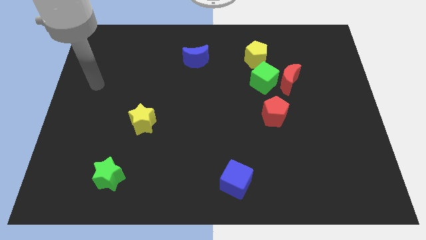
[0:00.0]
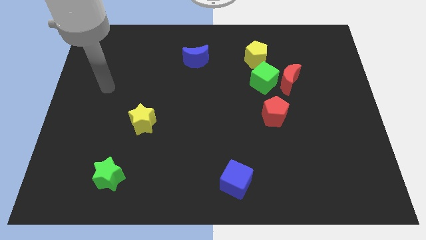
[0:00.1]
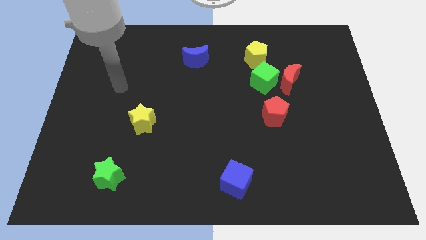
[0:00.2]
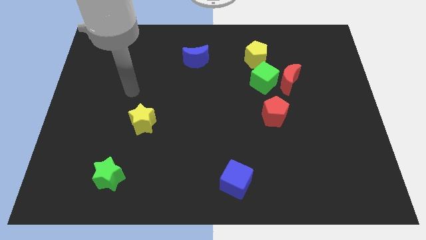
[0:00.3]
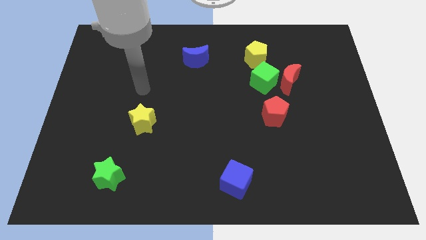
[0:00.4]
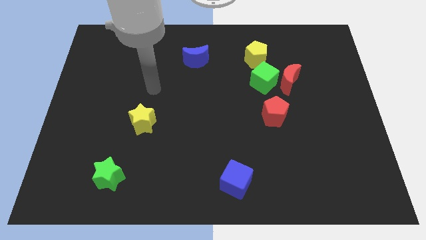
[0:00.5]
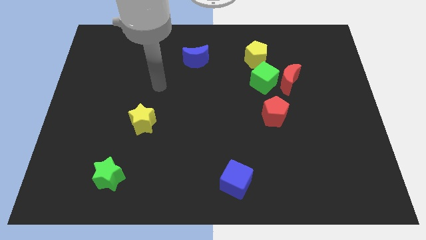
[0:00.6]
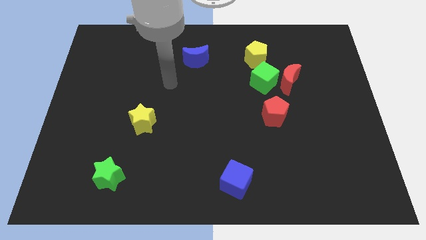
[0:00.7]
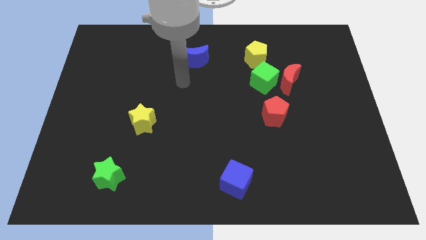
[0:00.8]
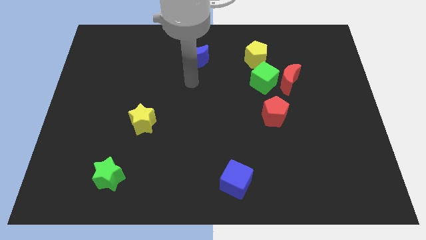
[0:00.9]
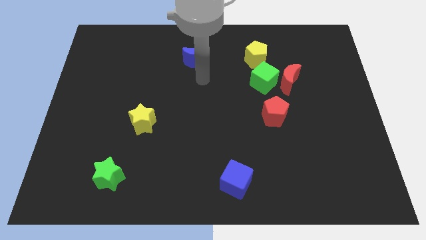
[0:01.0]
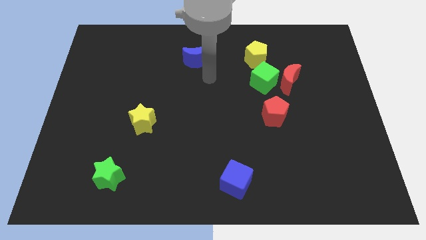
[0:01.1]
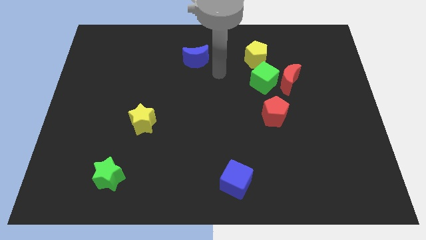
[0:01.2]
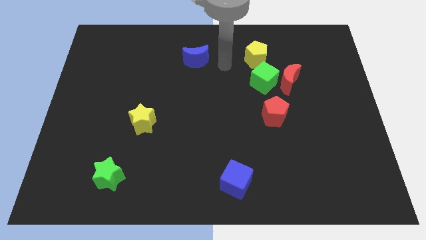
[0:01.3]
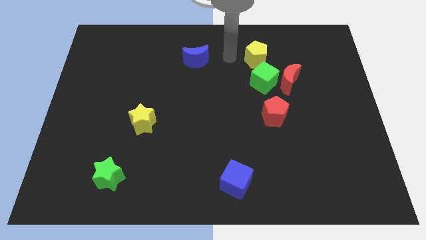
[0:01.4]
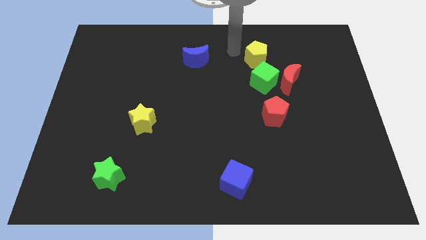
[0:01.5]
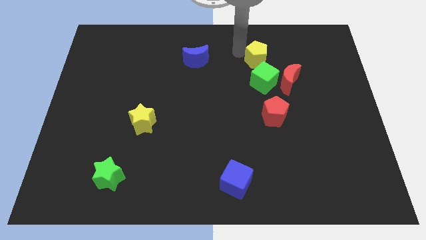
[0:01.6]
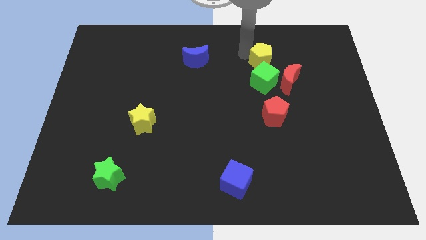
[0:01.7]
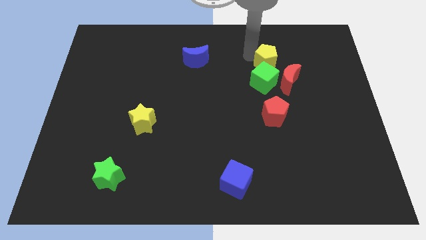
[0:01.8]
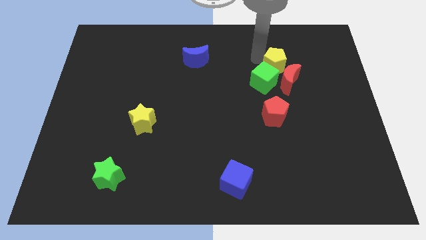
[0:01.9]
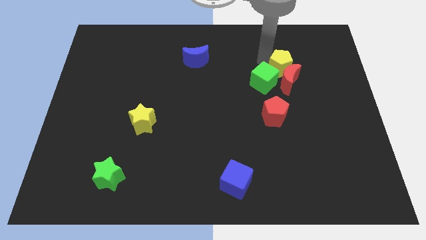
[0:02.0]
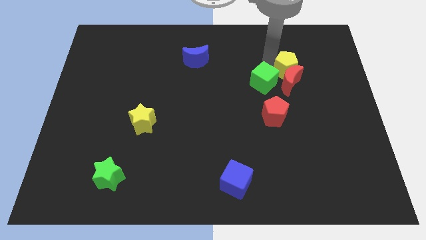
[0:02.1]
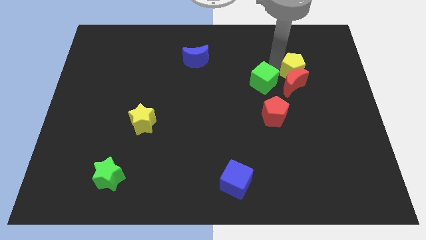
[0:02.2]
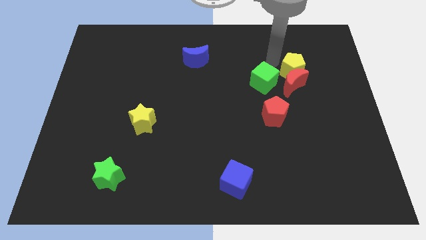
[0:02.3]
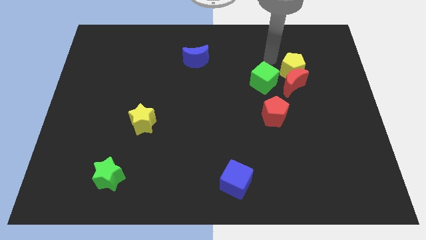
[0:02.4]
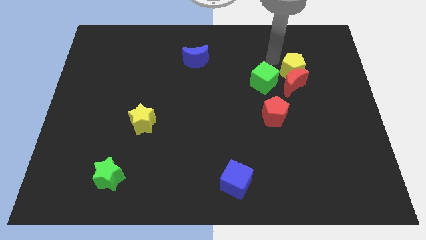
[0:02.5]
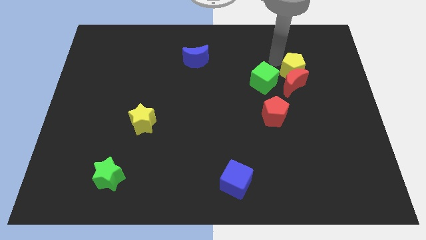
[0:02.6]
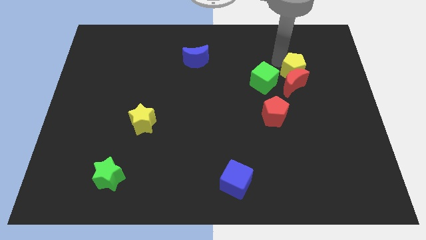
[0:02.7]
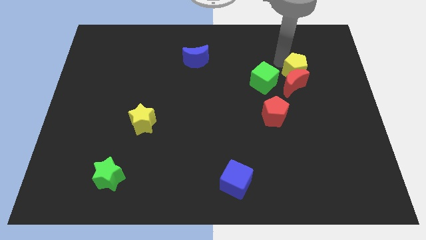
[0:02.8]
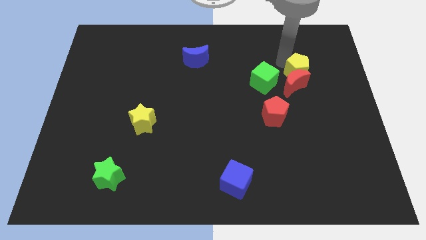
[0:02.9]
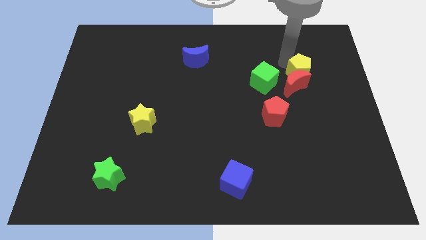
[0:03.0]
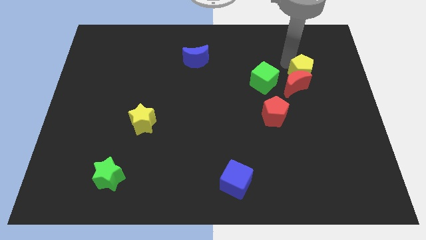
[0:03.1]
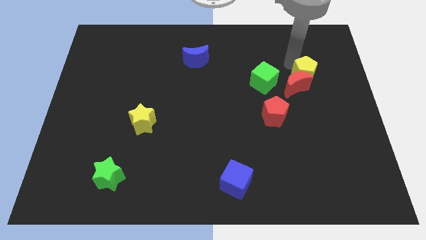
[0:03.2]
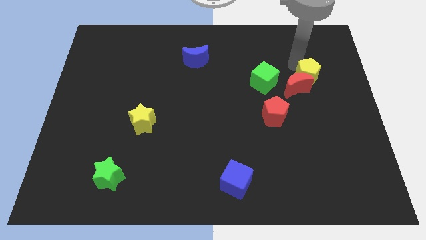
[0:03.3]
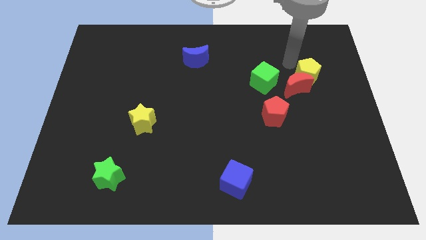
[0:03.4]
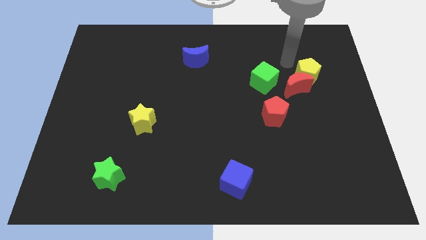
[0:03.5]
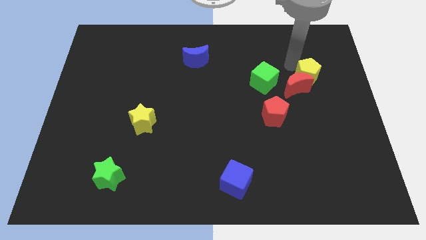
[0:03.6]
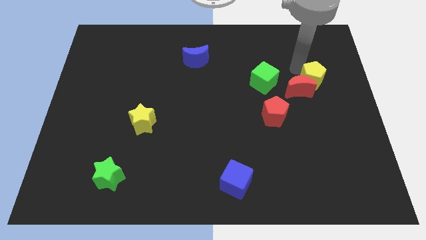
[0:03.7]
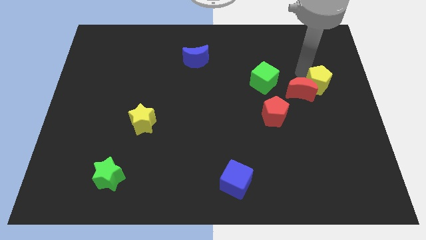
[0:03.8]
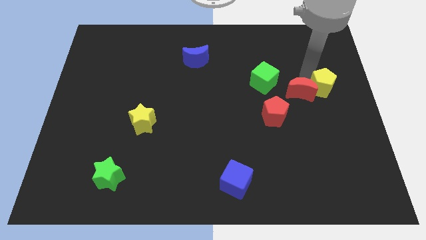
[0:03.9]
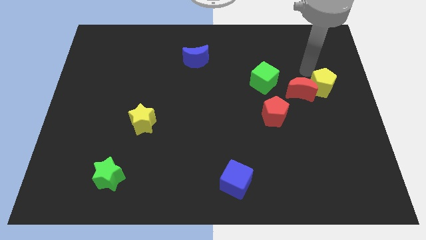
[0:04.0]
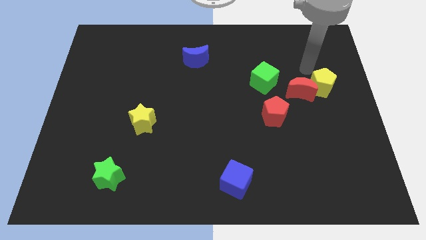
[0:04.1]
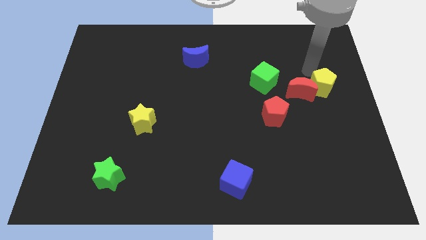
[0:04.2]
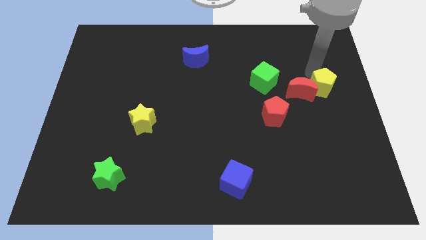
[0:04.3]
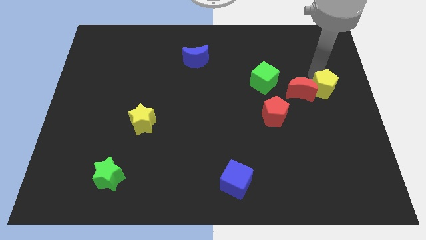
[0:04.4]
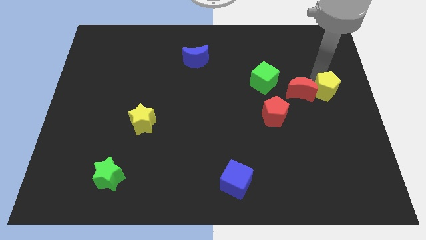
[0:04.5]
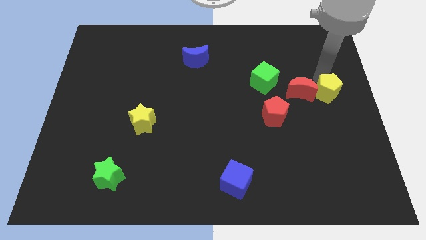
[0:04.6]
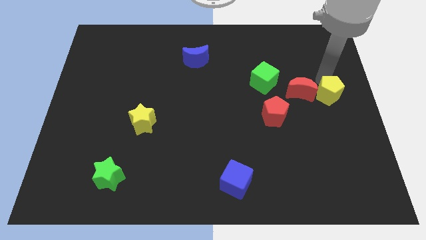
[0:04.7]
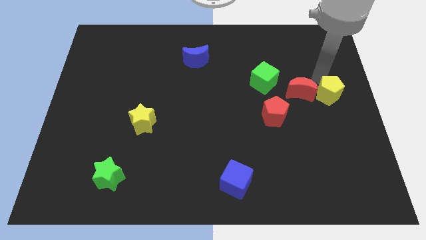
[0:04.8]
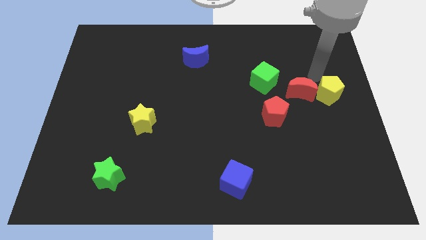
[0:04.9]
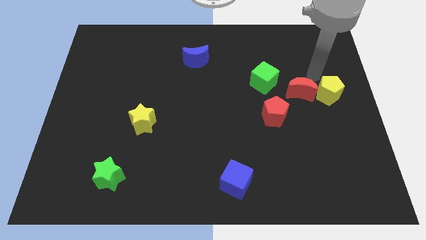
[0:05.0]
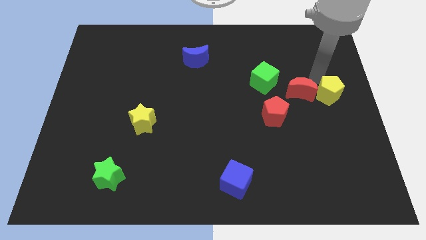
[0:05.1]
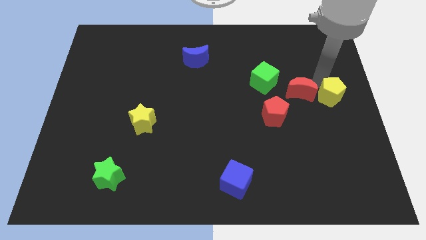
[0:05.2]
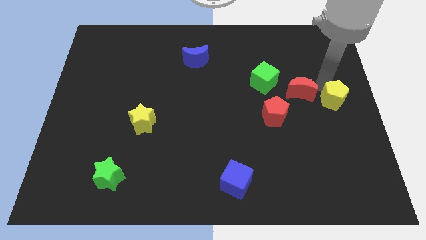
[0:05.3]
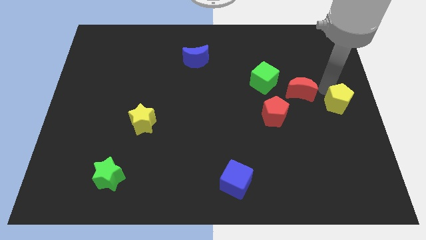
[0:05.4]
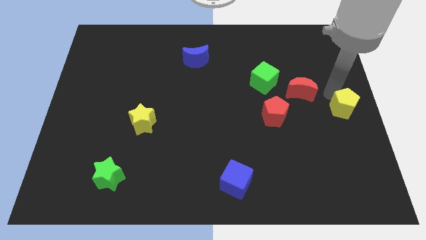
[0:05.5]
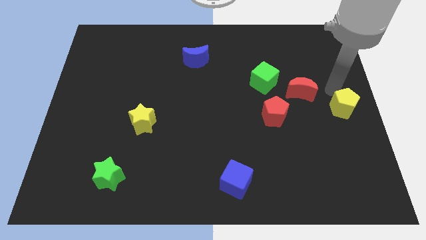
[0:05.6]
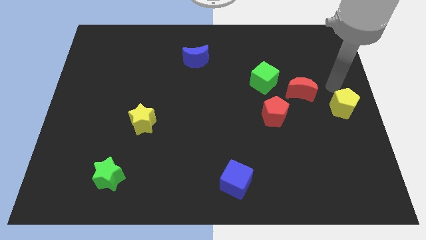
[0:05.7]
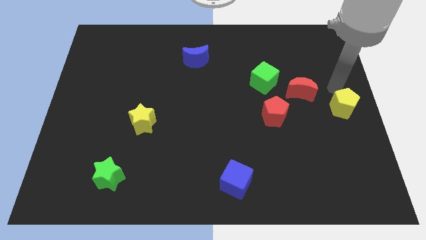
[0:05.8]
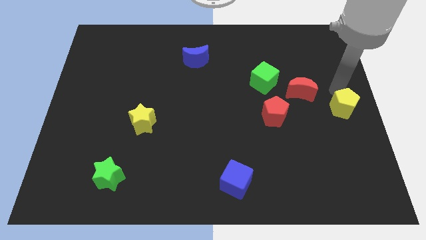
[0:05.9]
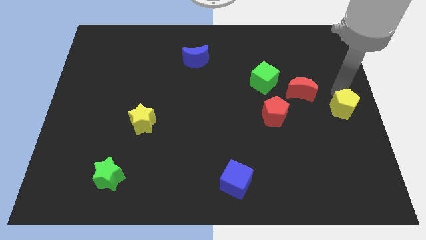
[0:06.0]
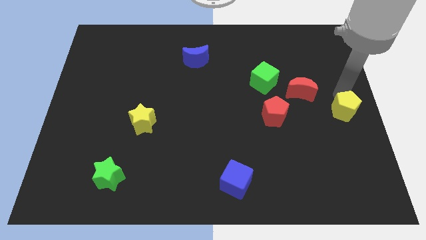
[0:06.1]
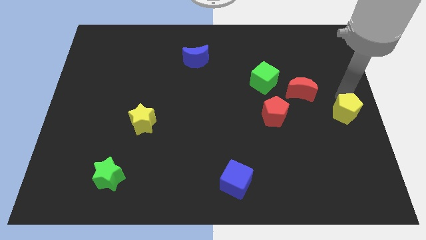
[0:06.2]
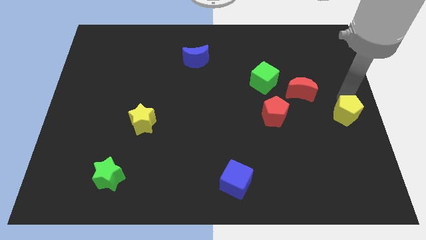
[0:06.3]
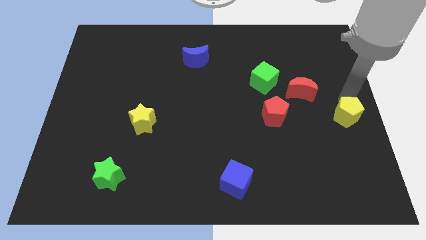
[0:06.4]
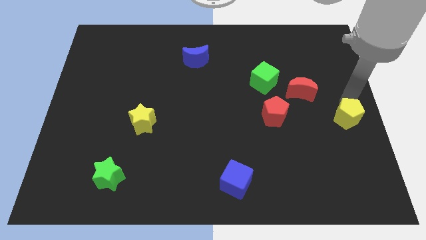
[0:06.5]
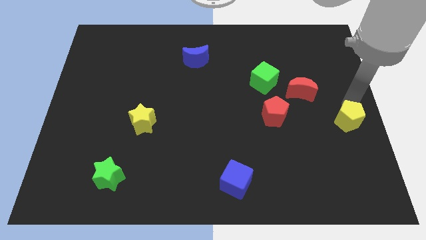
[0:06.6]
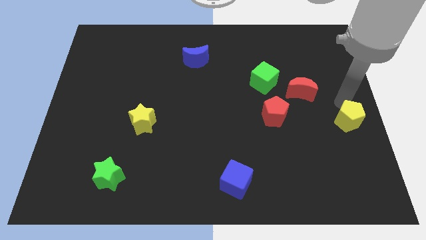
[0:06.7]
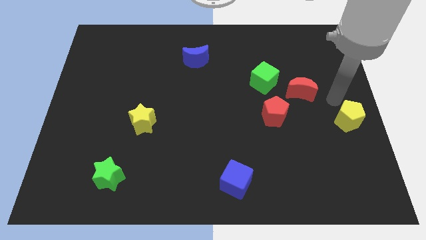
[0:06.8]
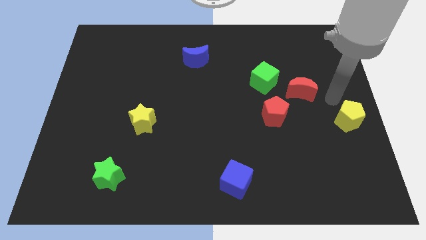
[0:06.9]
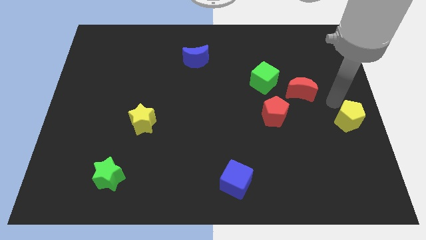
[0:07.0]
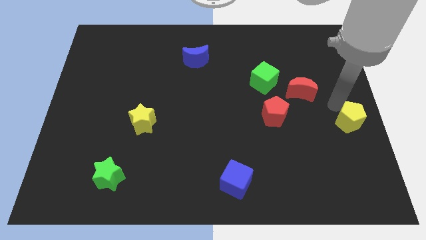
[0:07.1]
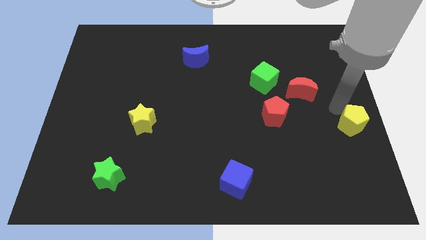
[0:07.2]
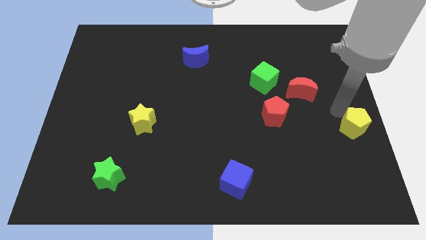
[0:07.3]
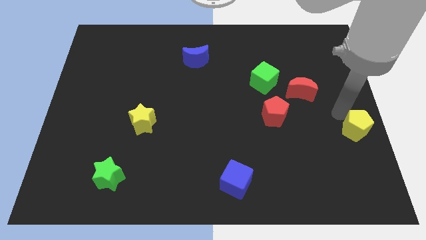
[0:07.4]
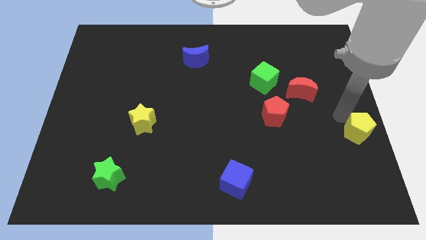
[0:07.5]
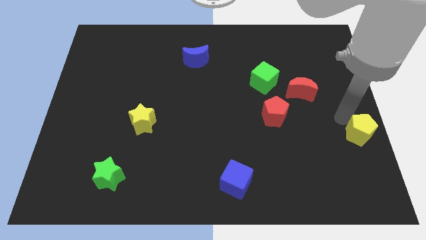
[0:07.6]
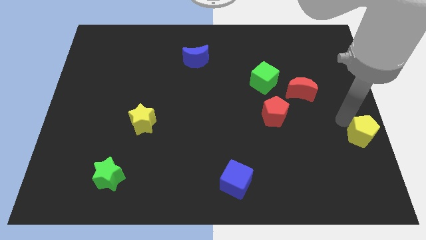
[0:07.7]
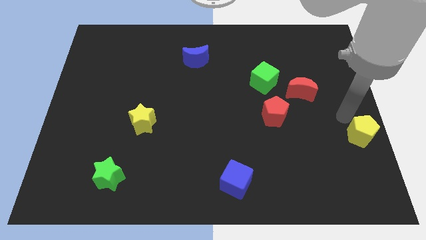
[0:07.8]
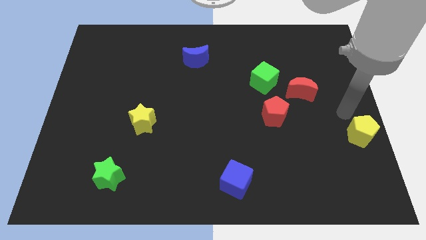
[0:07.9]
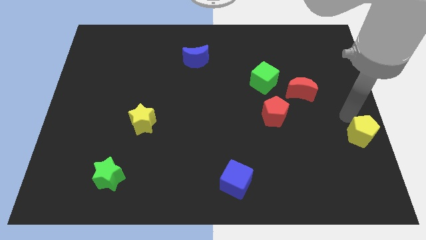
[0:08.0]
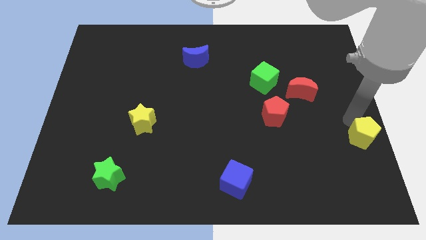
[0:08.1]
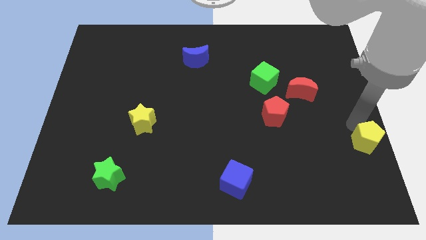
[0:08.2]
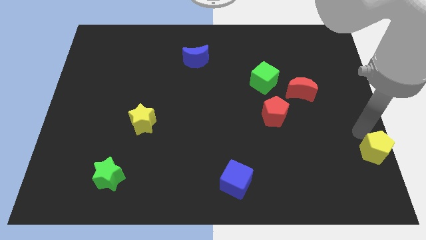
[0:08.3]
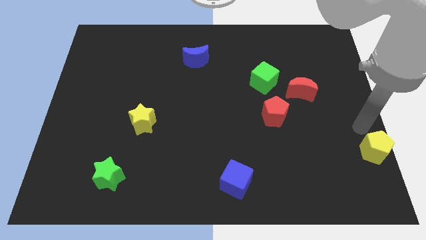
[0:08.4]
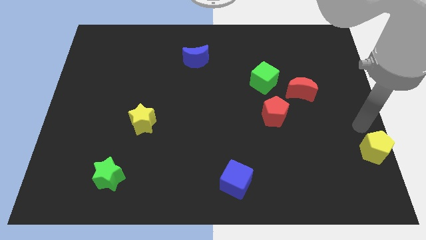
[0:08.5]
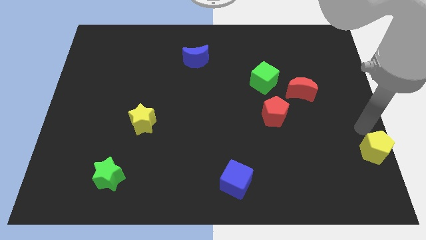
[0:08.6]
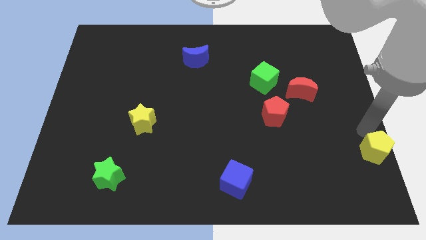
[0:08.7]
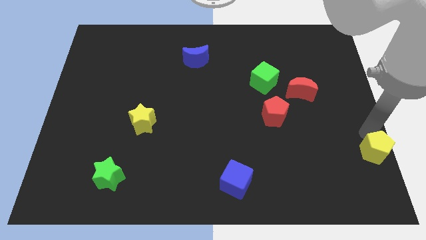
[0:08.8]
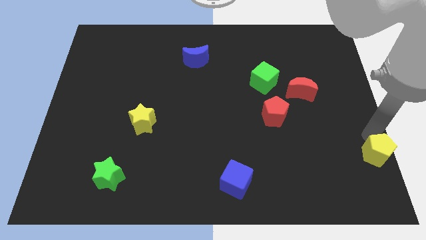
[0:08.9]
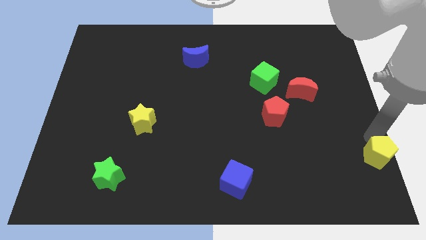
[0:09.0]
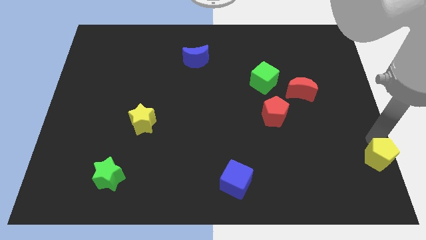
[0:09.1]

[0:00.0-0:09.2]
move the yellow pentagon to the bottom right of the board
